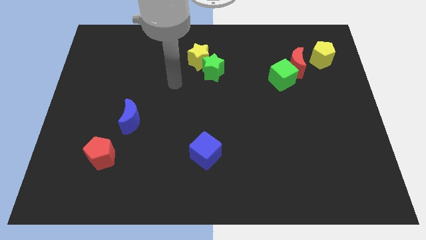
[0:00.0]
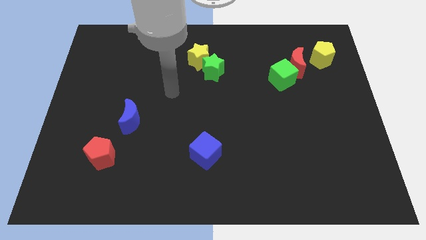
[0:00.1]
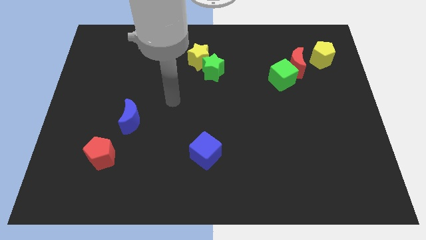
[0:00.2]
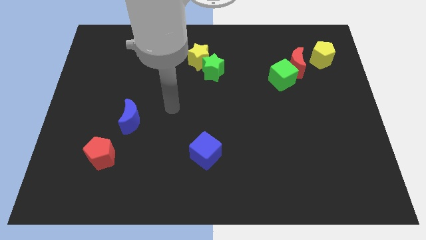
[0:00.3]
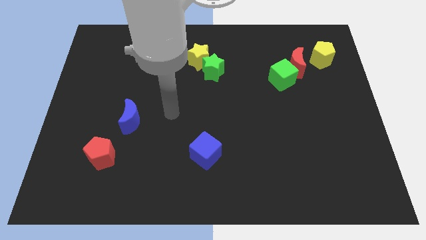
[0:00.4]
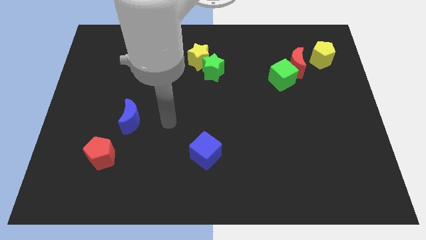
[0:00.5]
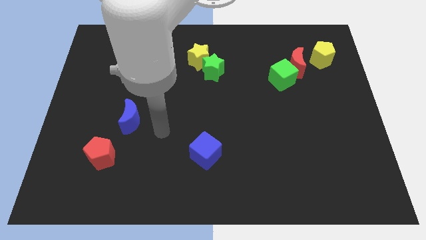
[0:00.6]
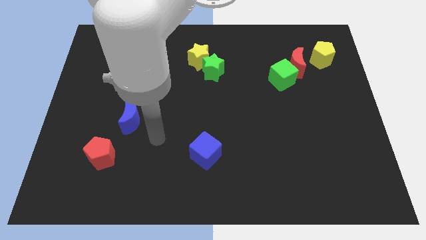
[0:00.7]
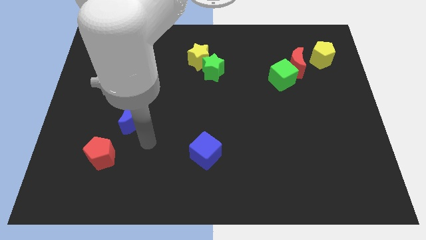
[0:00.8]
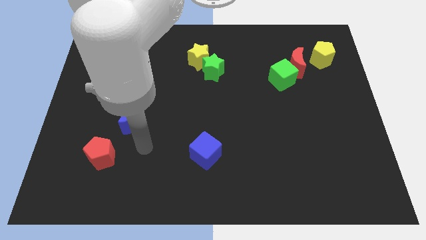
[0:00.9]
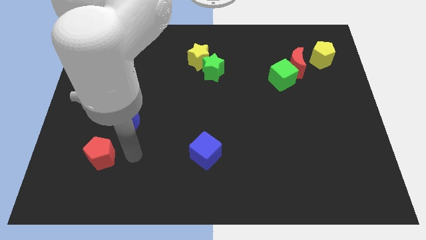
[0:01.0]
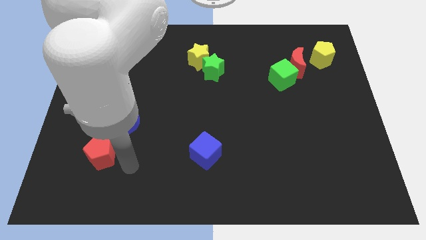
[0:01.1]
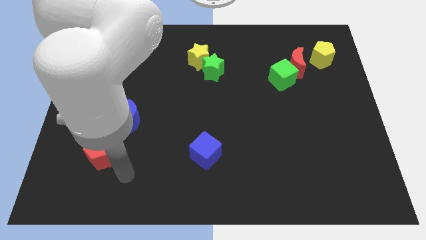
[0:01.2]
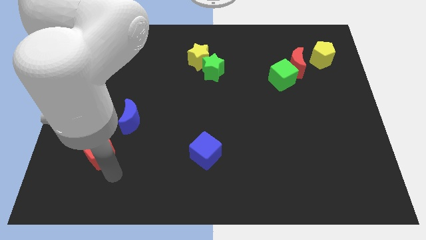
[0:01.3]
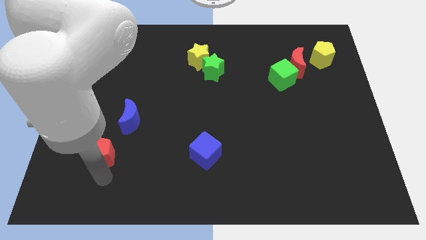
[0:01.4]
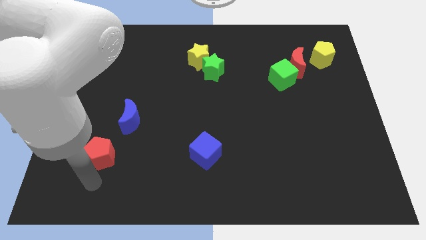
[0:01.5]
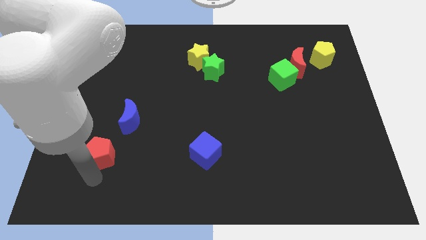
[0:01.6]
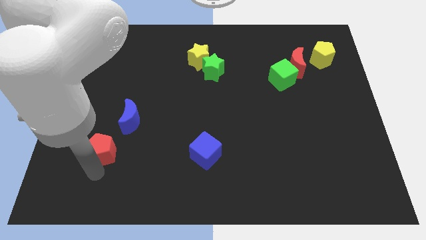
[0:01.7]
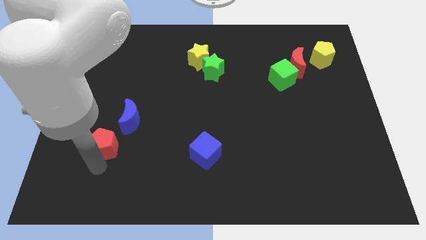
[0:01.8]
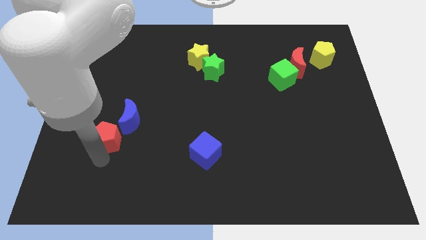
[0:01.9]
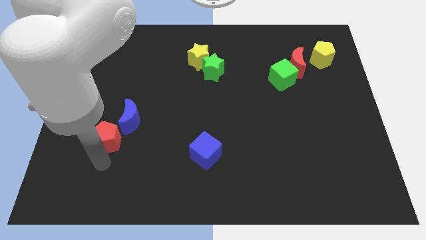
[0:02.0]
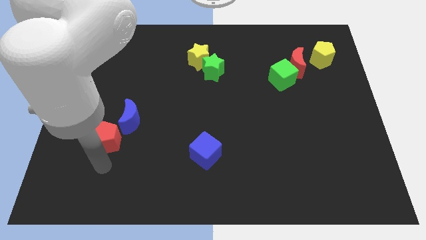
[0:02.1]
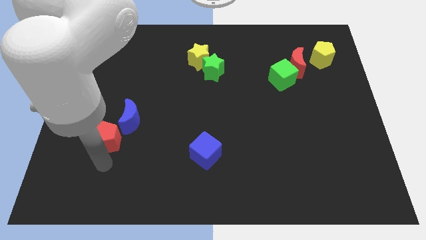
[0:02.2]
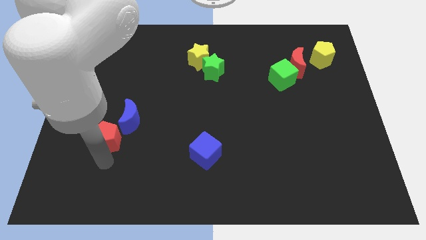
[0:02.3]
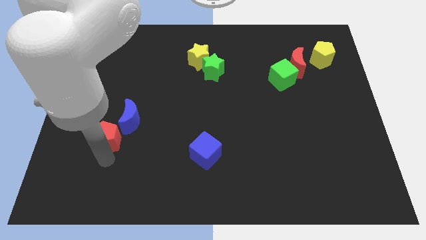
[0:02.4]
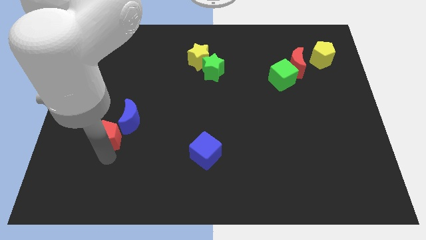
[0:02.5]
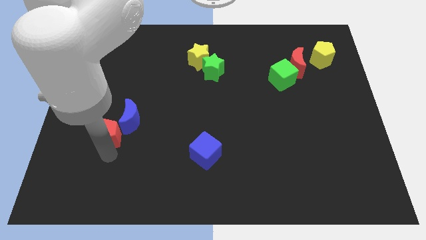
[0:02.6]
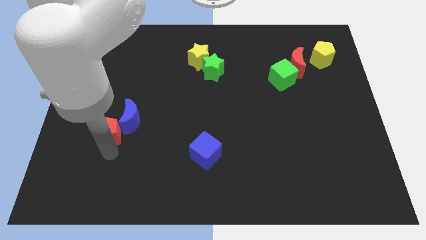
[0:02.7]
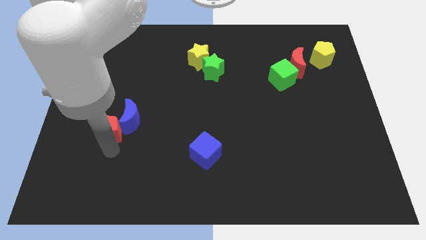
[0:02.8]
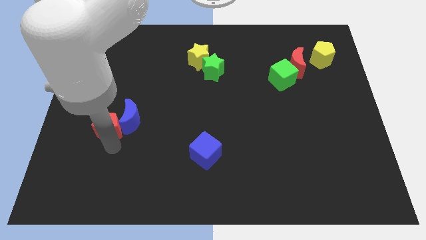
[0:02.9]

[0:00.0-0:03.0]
push the red pentagon up a little

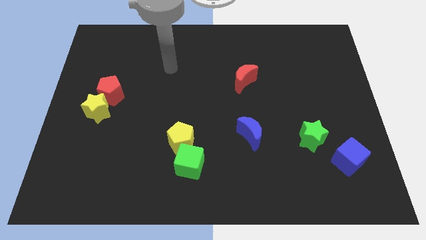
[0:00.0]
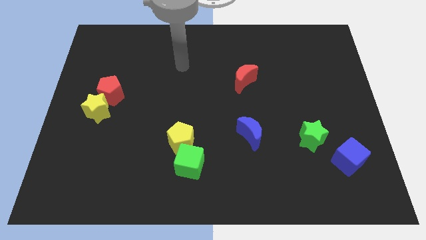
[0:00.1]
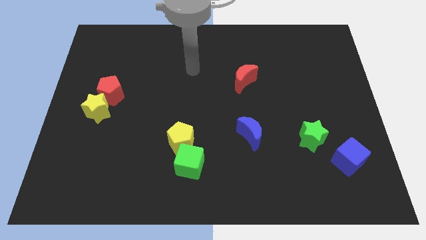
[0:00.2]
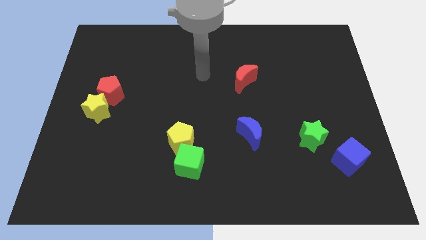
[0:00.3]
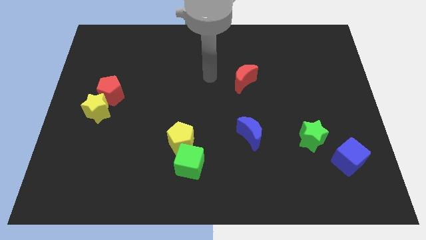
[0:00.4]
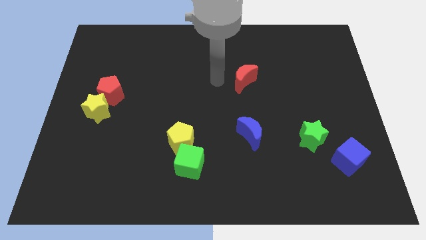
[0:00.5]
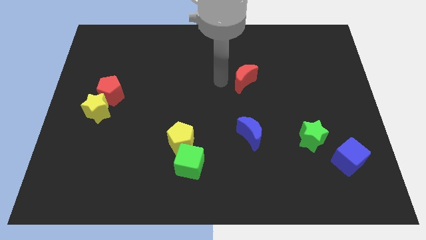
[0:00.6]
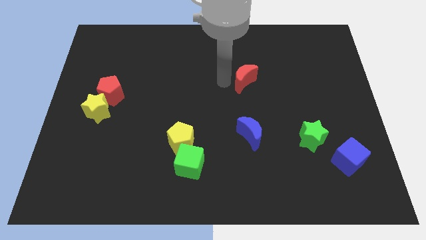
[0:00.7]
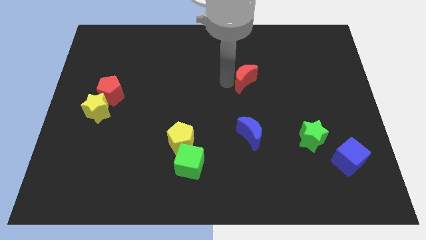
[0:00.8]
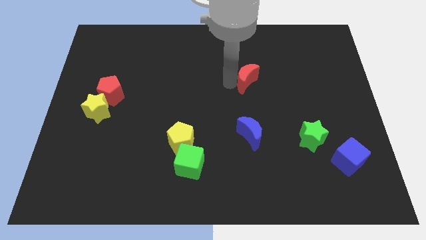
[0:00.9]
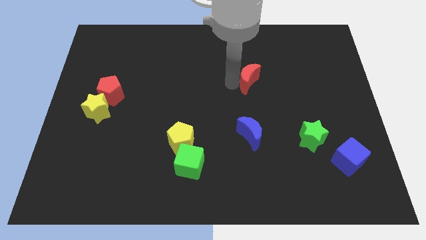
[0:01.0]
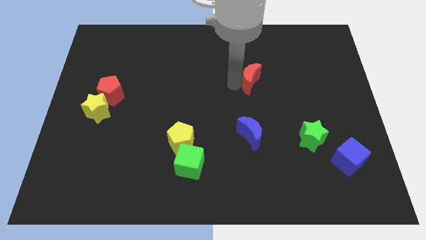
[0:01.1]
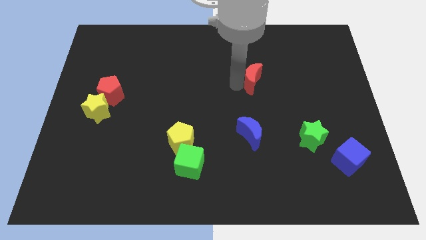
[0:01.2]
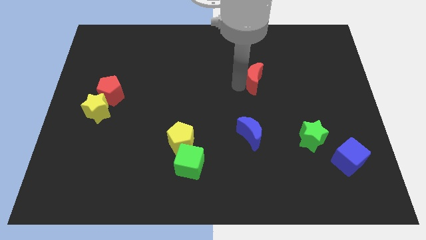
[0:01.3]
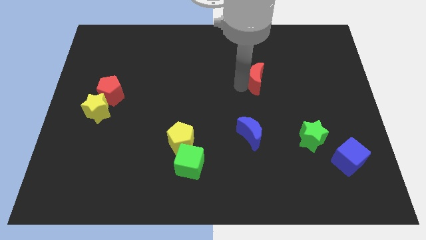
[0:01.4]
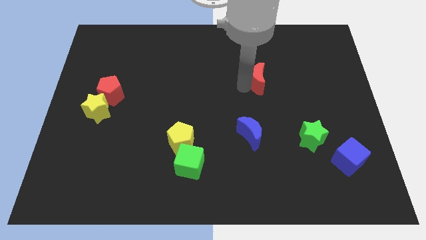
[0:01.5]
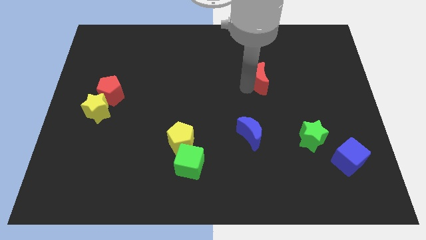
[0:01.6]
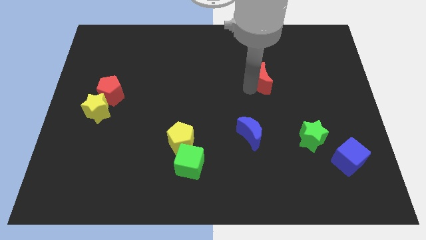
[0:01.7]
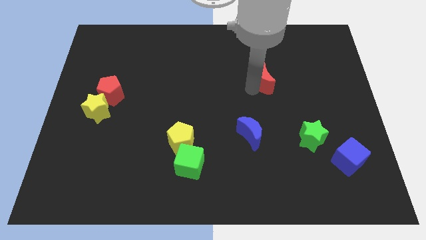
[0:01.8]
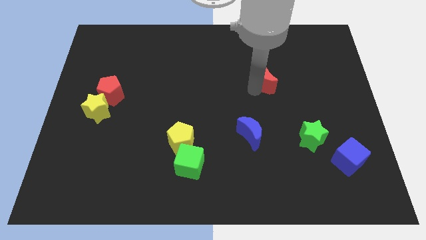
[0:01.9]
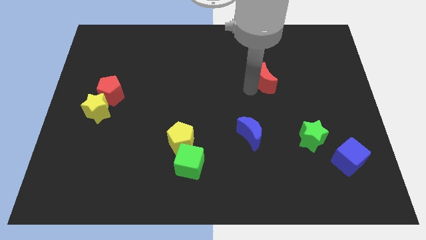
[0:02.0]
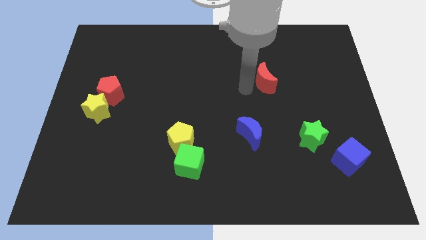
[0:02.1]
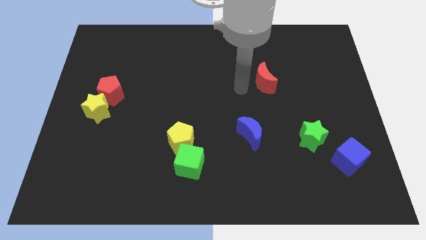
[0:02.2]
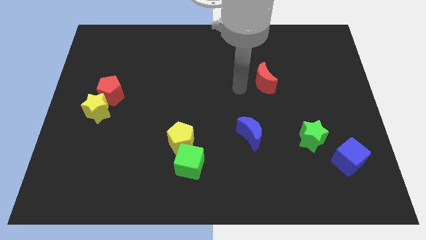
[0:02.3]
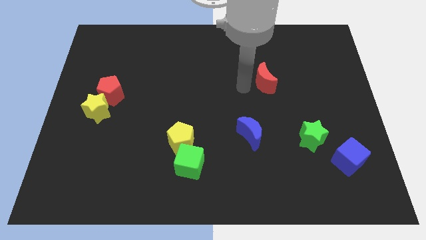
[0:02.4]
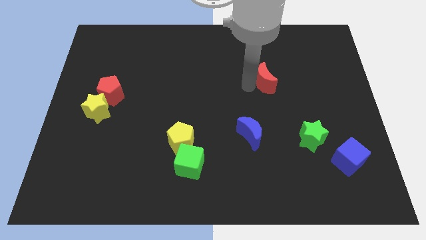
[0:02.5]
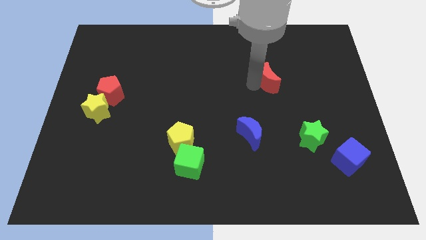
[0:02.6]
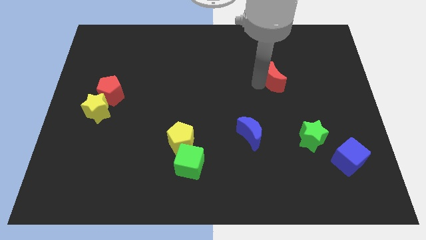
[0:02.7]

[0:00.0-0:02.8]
push the red moon right a little bit

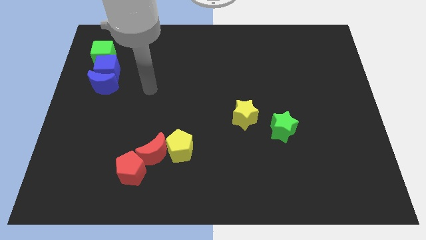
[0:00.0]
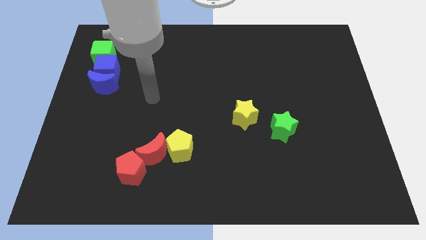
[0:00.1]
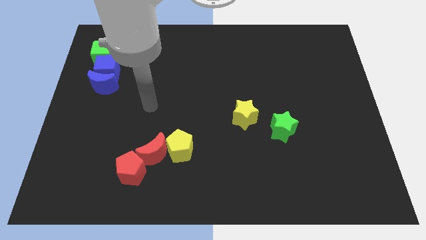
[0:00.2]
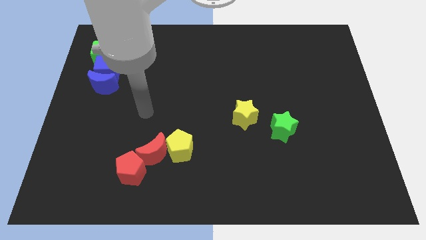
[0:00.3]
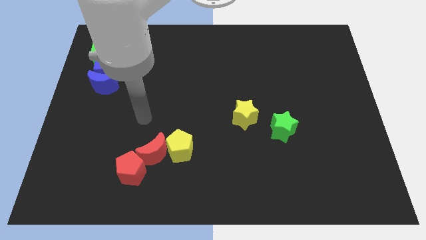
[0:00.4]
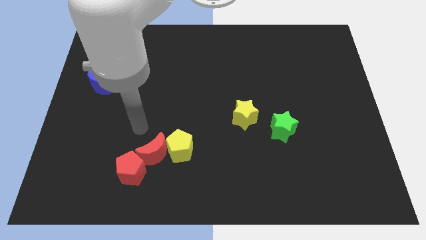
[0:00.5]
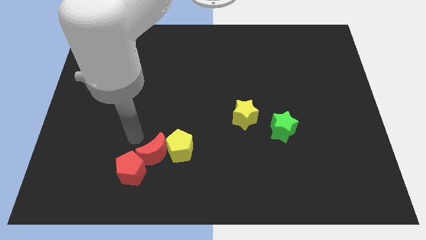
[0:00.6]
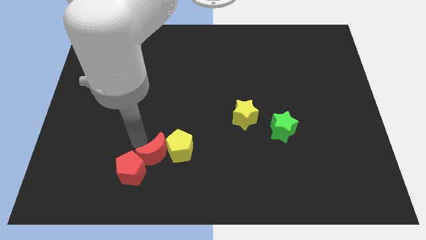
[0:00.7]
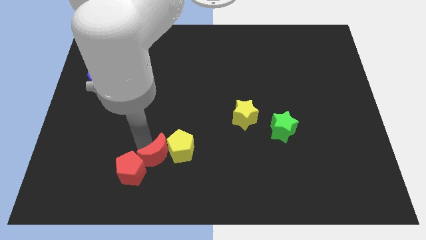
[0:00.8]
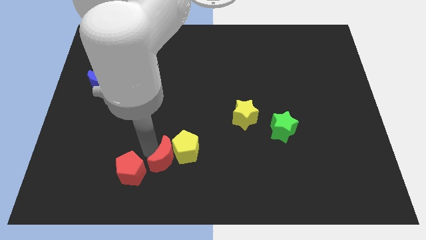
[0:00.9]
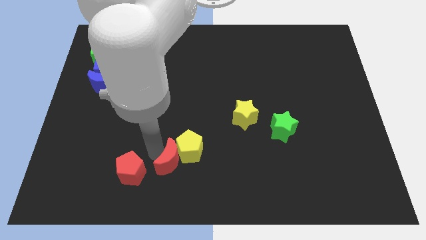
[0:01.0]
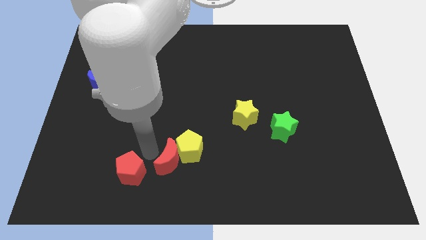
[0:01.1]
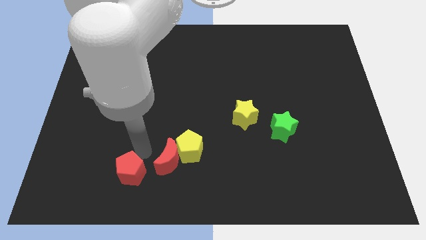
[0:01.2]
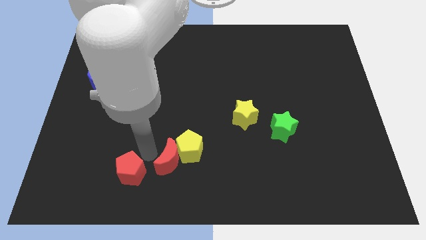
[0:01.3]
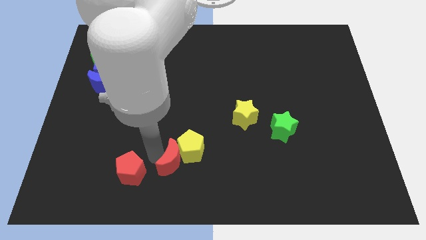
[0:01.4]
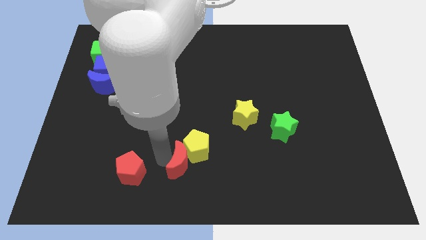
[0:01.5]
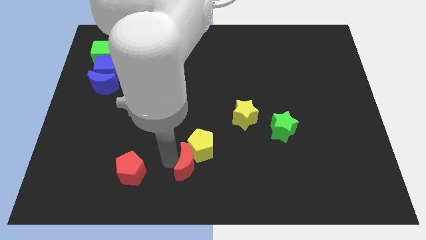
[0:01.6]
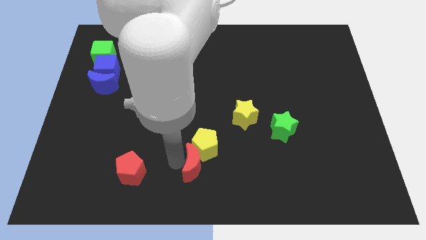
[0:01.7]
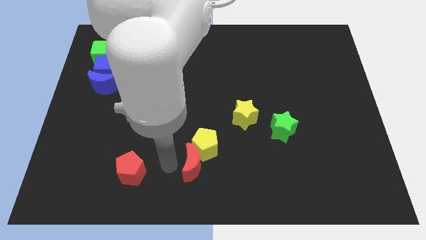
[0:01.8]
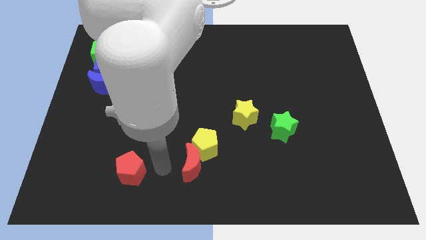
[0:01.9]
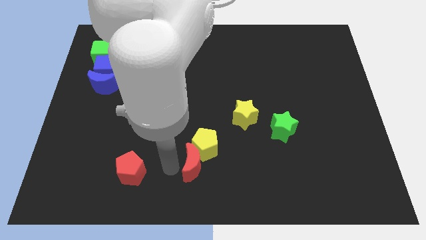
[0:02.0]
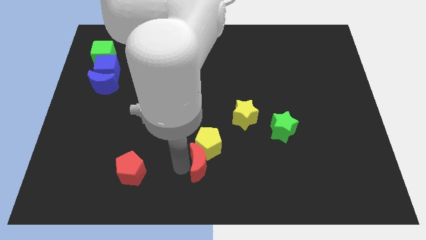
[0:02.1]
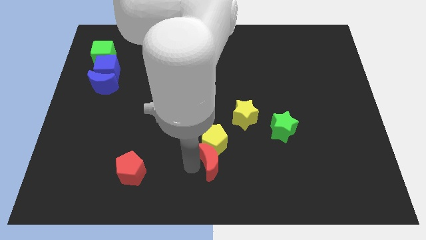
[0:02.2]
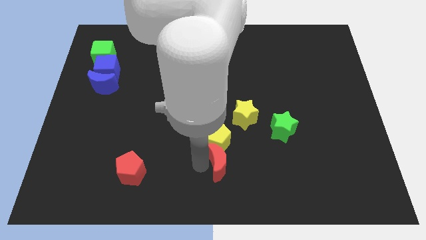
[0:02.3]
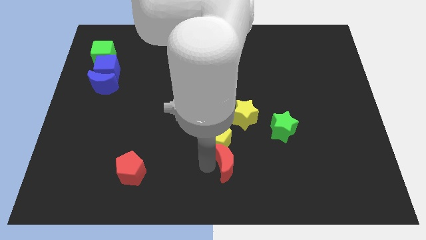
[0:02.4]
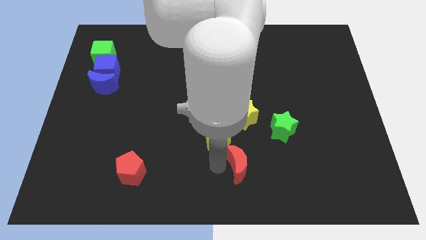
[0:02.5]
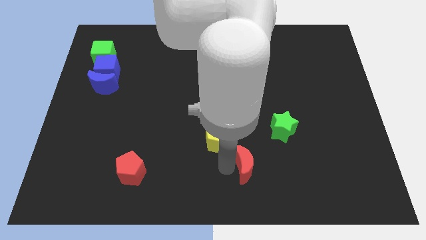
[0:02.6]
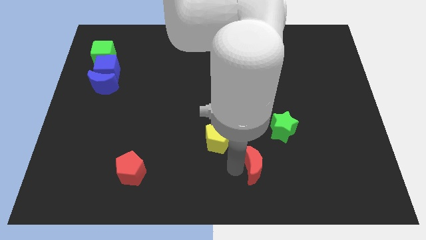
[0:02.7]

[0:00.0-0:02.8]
move the red moon right
